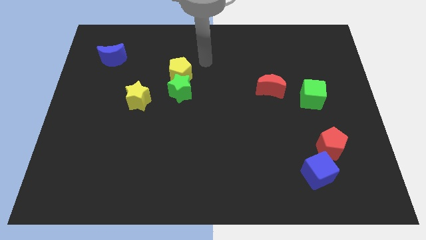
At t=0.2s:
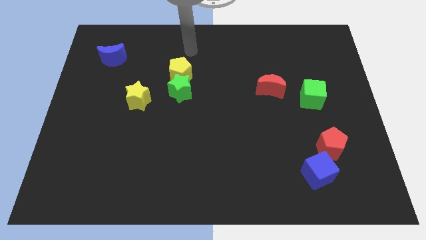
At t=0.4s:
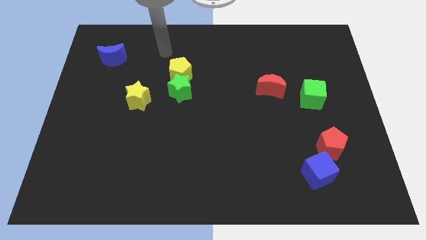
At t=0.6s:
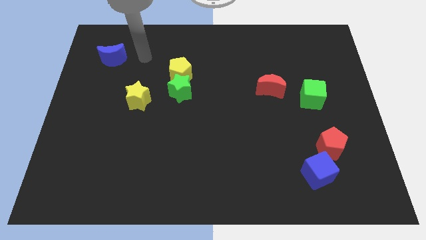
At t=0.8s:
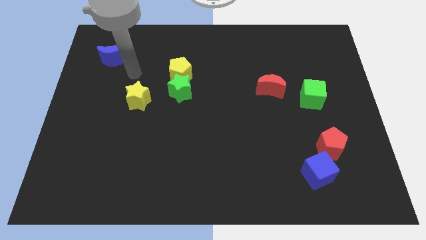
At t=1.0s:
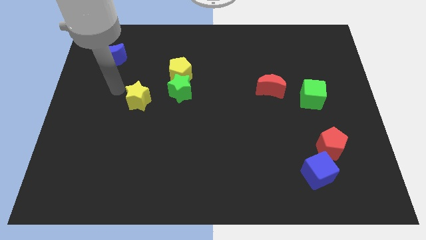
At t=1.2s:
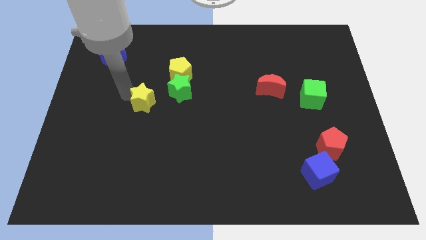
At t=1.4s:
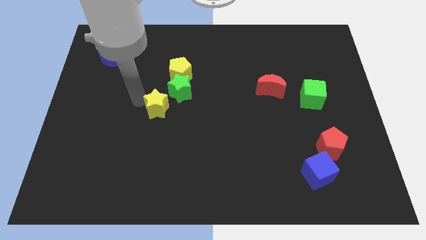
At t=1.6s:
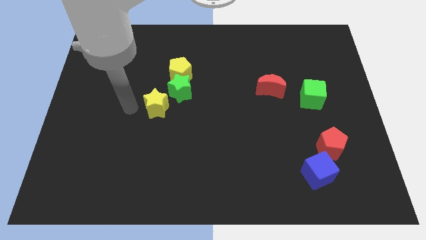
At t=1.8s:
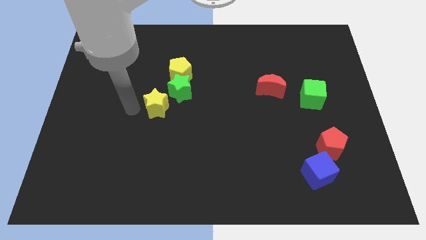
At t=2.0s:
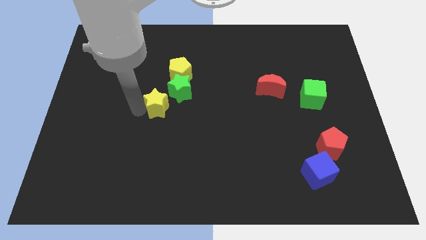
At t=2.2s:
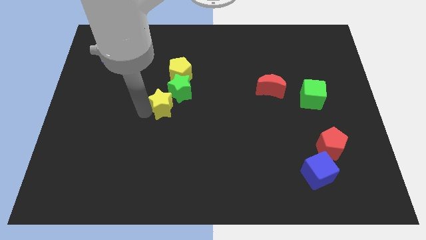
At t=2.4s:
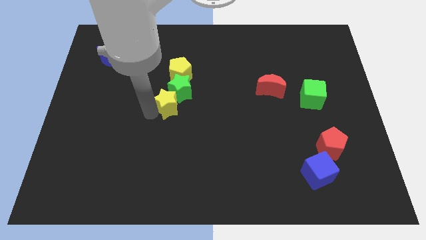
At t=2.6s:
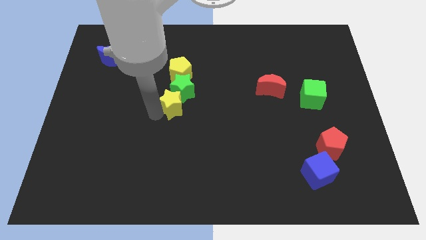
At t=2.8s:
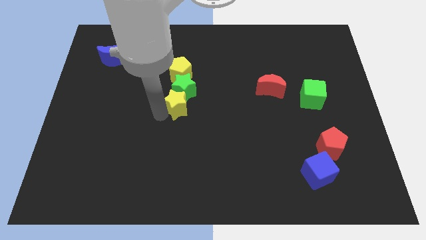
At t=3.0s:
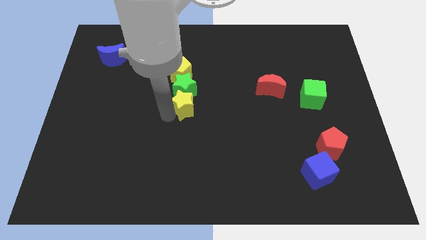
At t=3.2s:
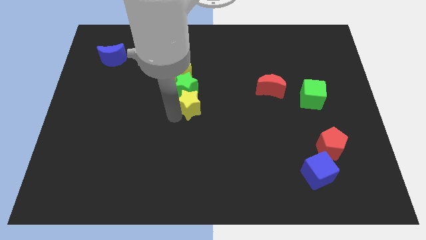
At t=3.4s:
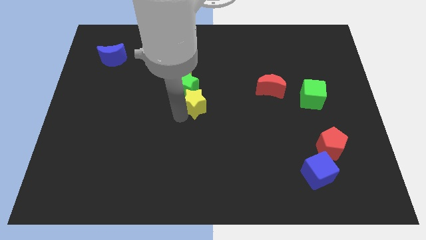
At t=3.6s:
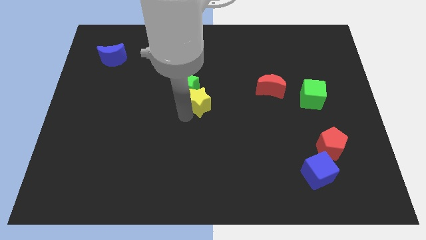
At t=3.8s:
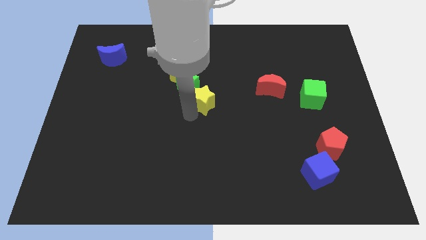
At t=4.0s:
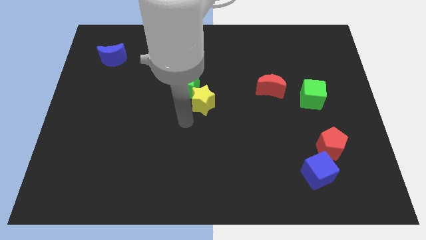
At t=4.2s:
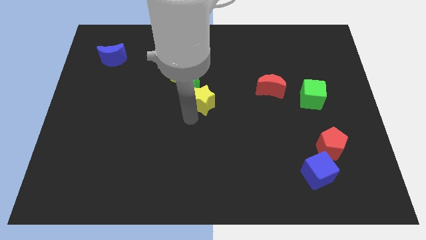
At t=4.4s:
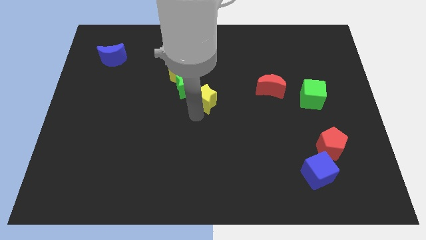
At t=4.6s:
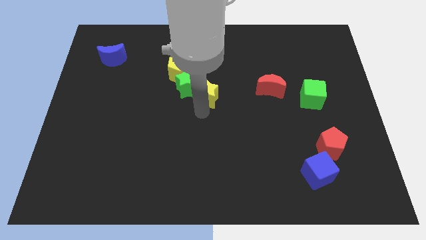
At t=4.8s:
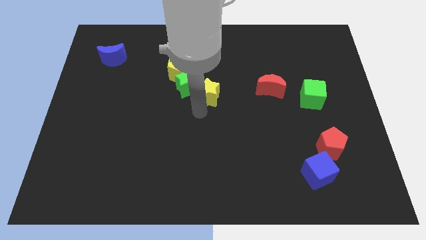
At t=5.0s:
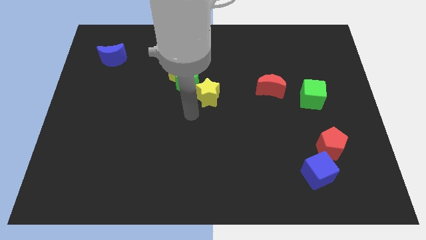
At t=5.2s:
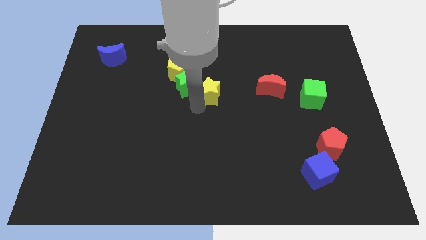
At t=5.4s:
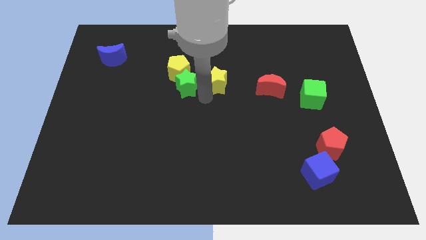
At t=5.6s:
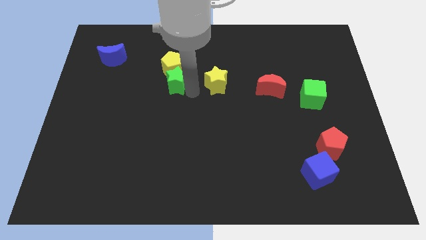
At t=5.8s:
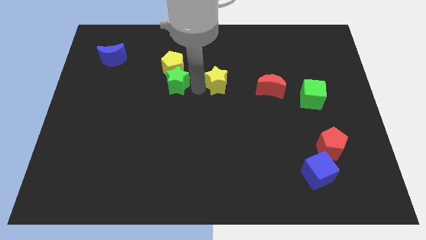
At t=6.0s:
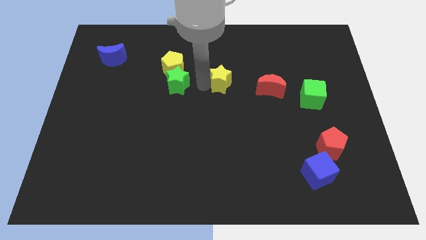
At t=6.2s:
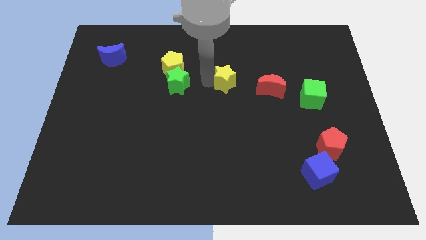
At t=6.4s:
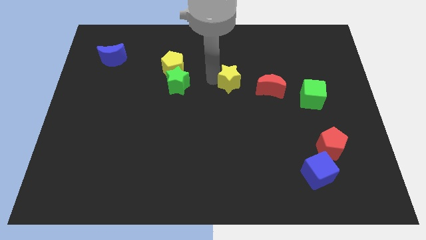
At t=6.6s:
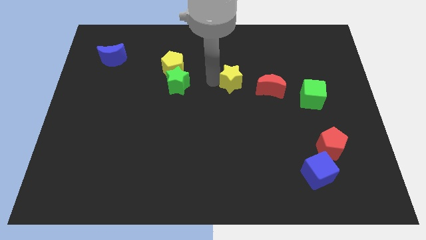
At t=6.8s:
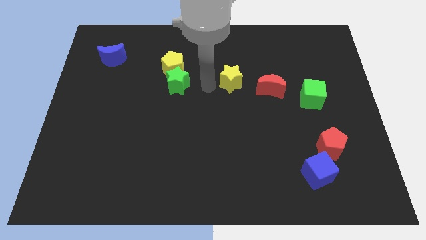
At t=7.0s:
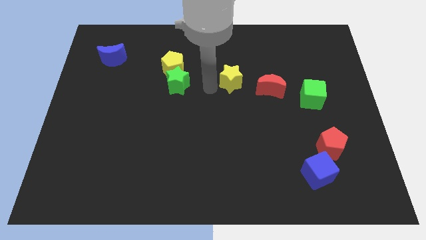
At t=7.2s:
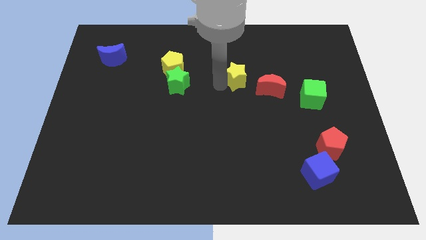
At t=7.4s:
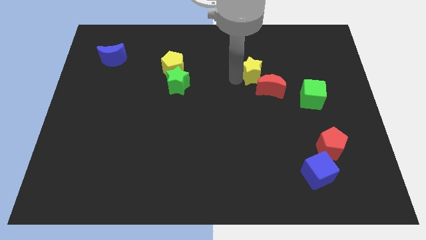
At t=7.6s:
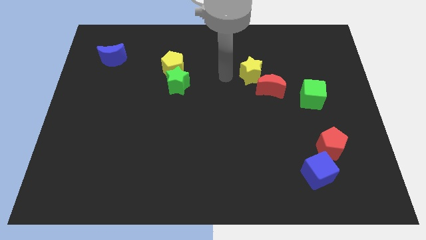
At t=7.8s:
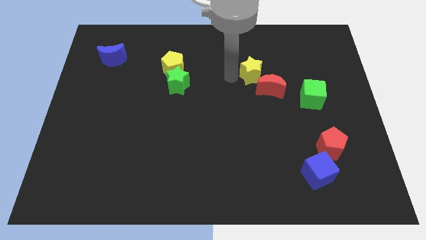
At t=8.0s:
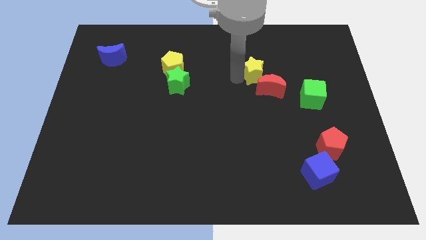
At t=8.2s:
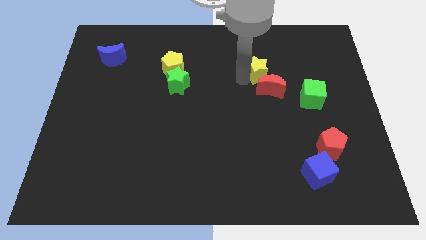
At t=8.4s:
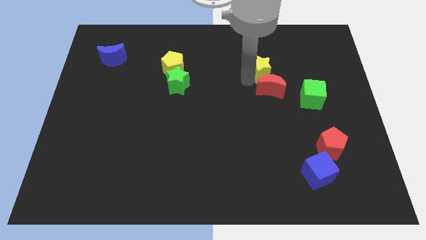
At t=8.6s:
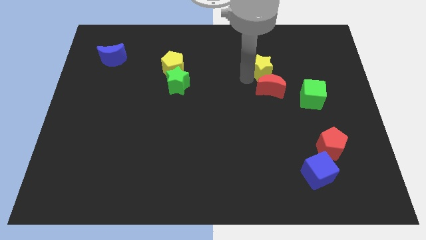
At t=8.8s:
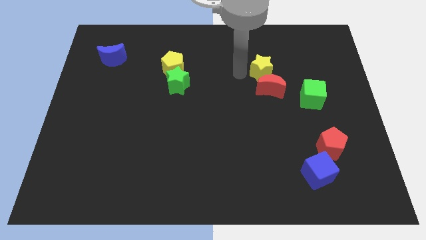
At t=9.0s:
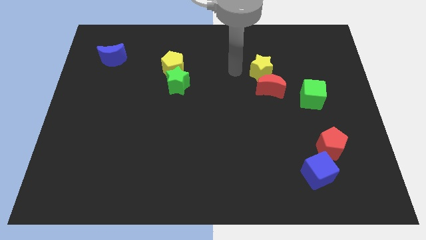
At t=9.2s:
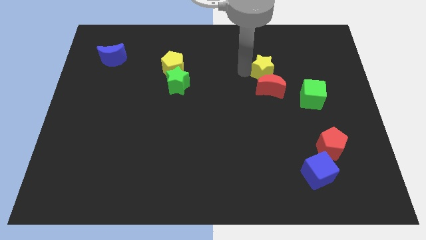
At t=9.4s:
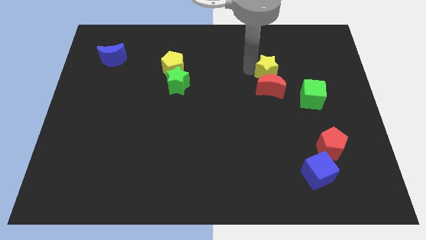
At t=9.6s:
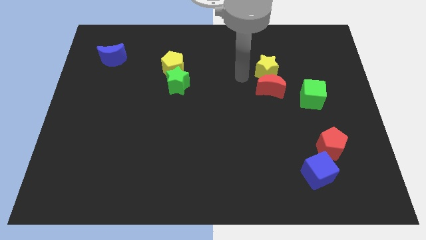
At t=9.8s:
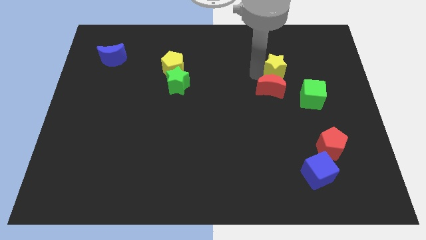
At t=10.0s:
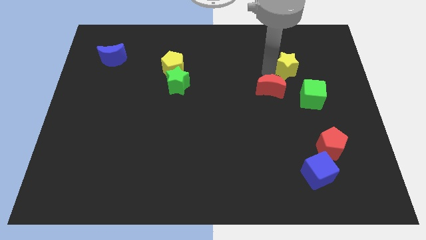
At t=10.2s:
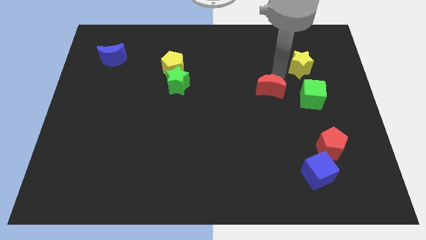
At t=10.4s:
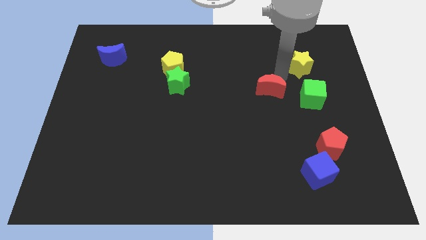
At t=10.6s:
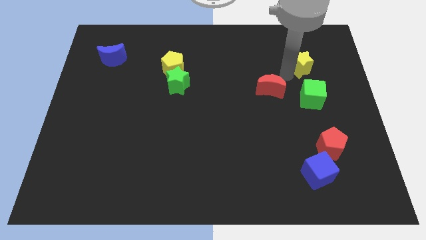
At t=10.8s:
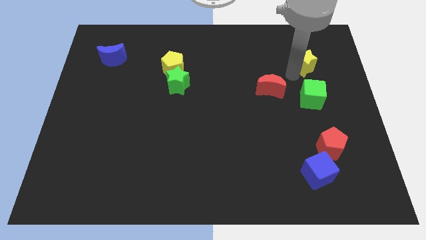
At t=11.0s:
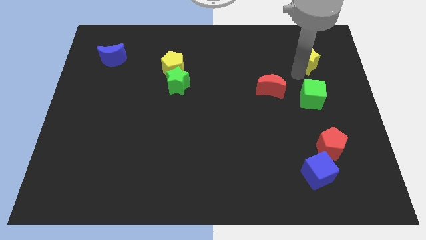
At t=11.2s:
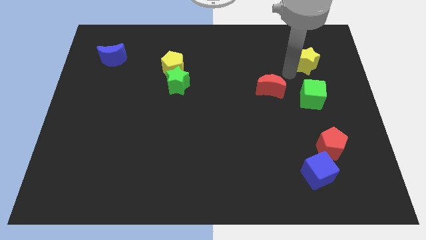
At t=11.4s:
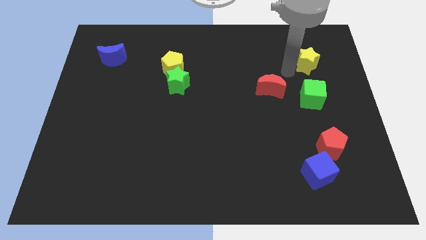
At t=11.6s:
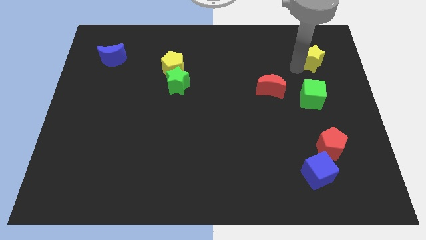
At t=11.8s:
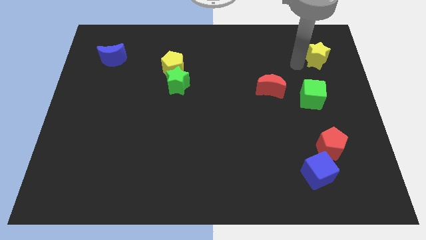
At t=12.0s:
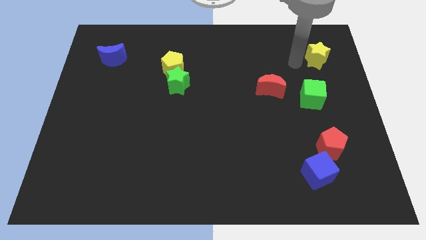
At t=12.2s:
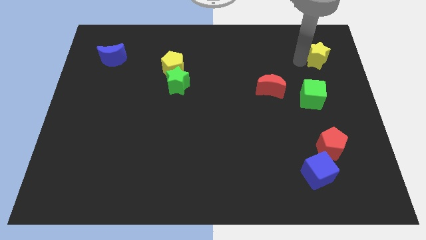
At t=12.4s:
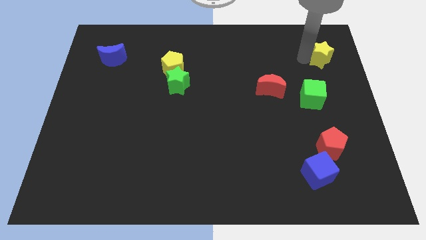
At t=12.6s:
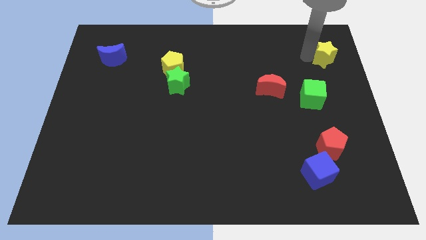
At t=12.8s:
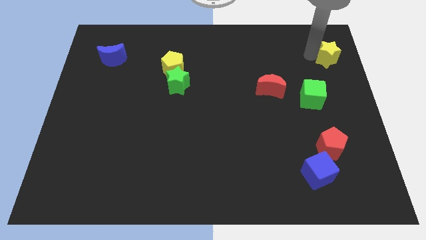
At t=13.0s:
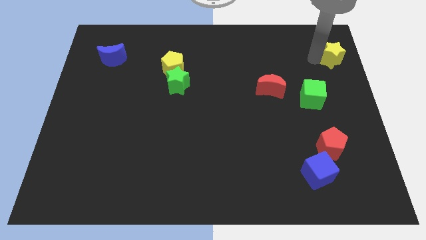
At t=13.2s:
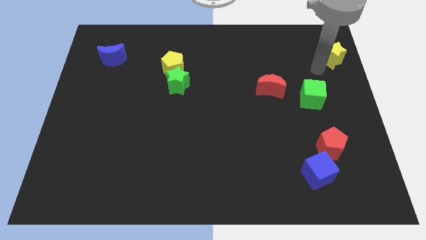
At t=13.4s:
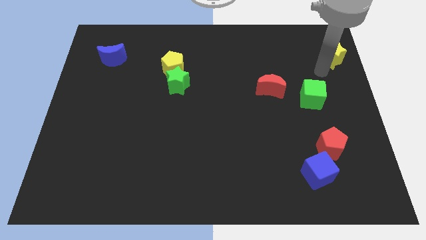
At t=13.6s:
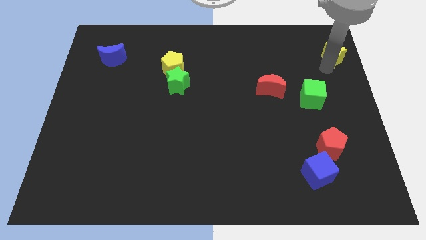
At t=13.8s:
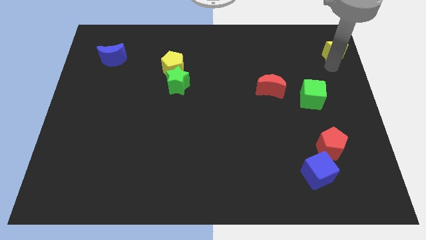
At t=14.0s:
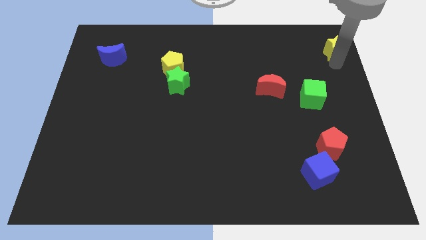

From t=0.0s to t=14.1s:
slide the yellow star to the upper right corner

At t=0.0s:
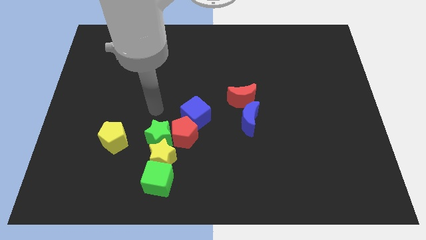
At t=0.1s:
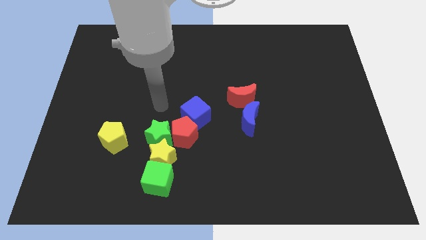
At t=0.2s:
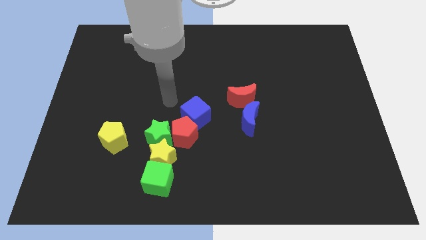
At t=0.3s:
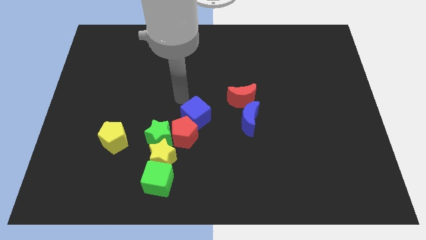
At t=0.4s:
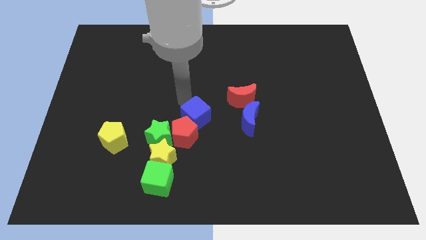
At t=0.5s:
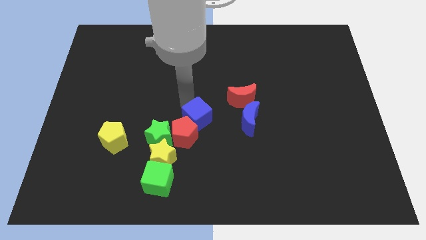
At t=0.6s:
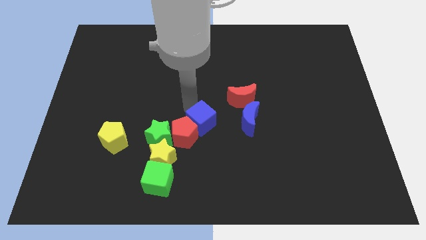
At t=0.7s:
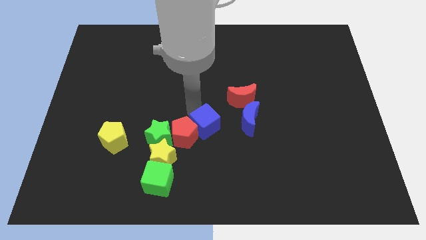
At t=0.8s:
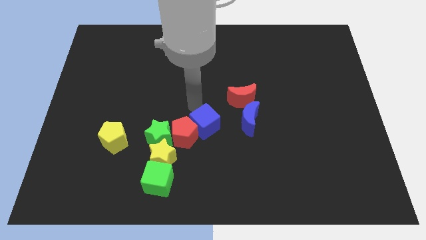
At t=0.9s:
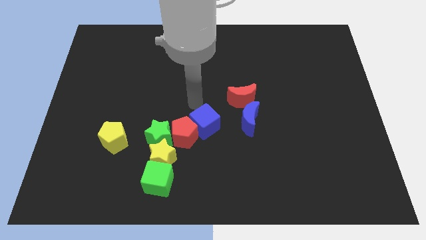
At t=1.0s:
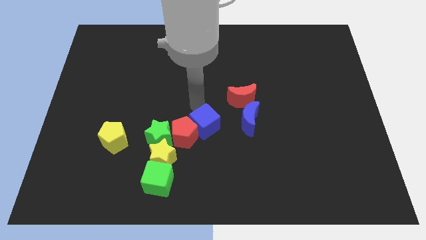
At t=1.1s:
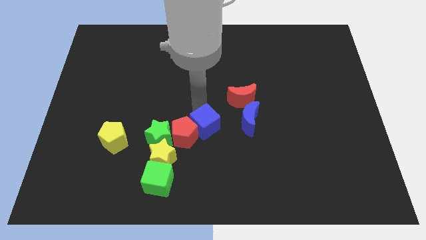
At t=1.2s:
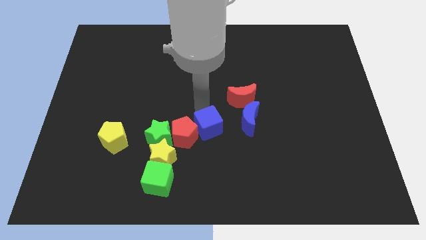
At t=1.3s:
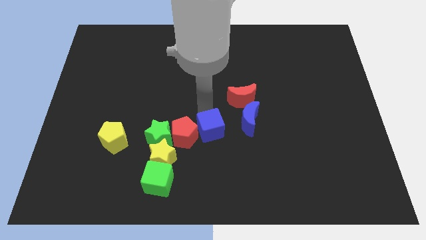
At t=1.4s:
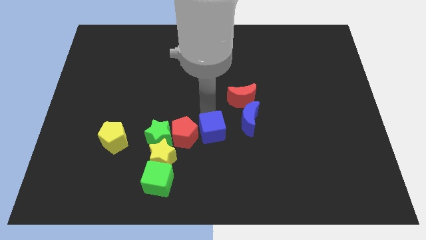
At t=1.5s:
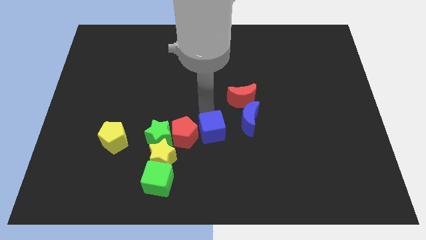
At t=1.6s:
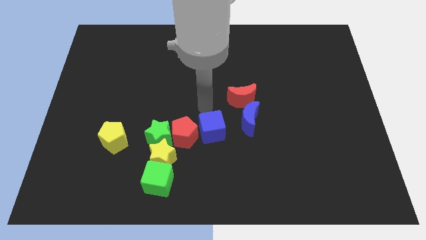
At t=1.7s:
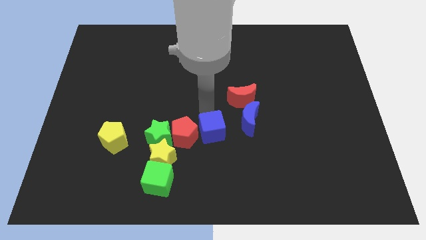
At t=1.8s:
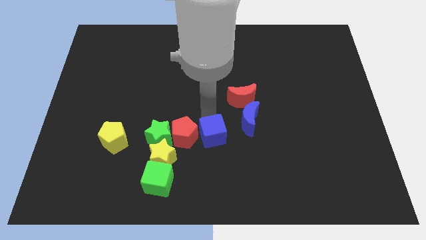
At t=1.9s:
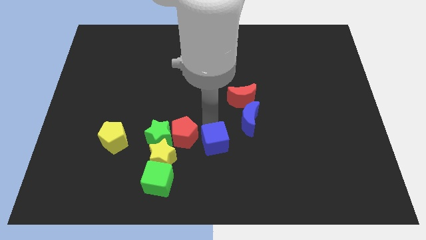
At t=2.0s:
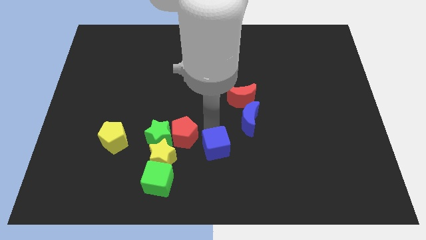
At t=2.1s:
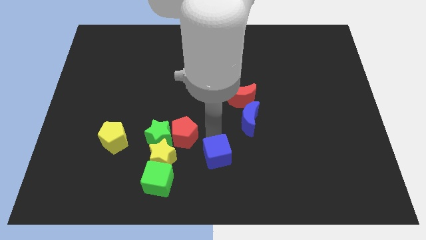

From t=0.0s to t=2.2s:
put the blue cube to the bottom
